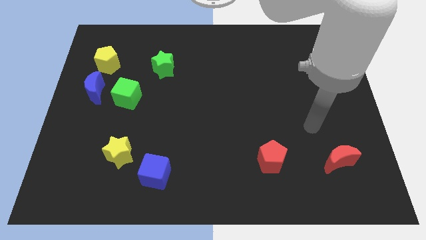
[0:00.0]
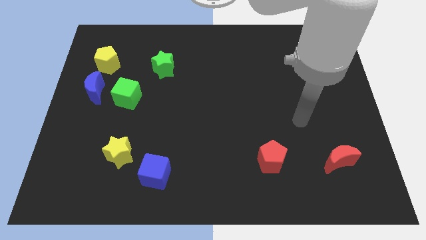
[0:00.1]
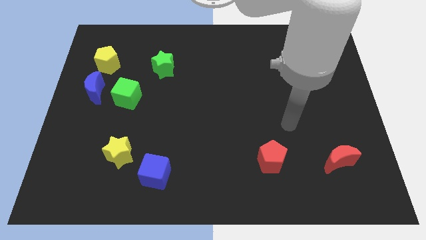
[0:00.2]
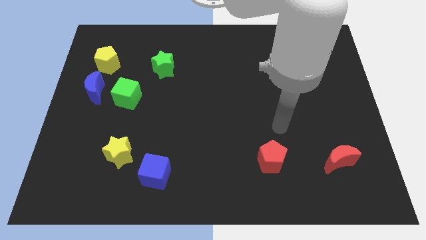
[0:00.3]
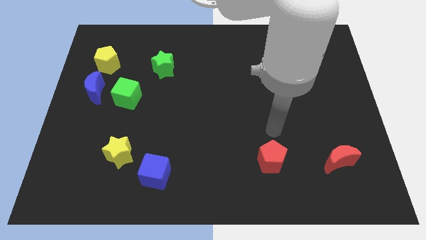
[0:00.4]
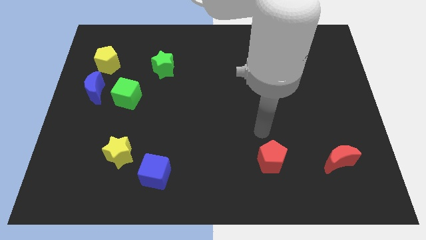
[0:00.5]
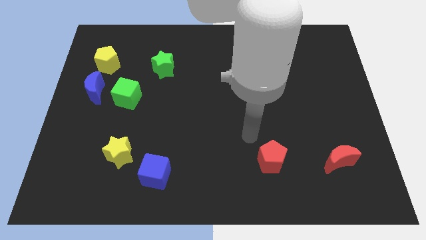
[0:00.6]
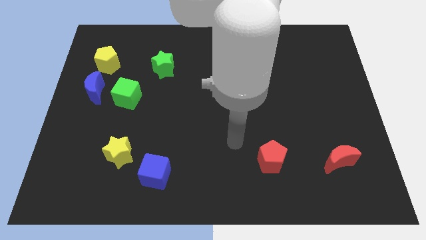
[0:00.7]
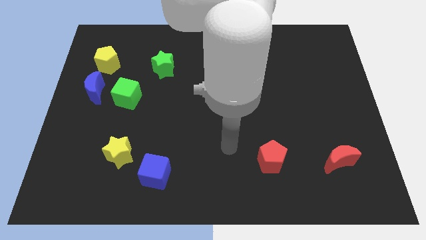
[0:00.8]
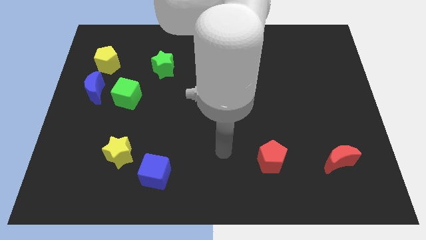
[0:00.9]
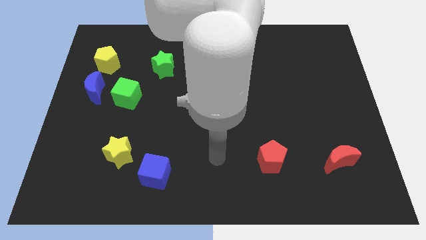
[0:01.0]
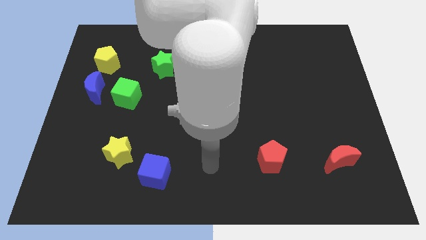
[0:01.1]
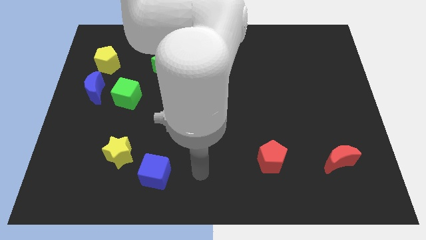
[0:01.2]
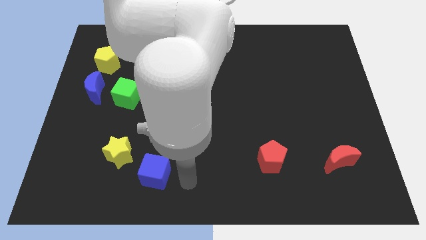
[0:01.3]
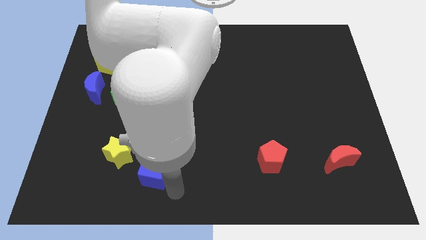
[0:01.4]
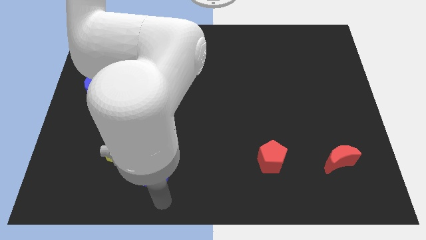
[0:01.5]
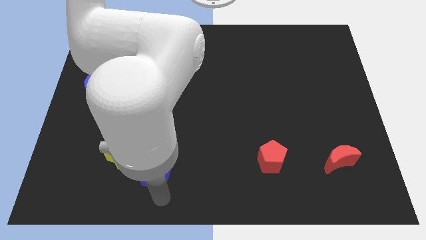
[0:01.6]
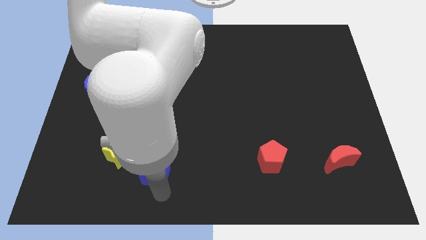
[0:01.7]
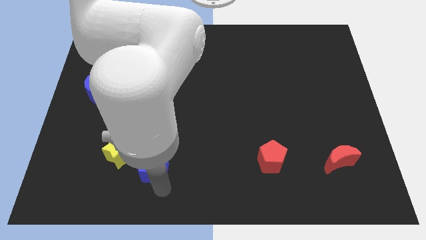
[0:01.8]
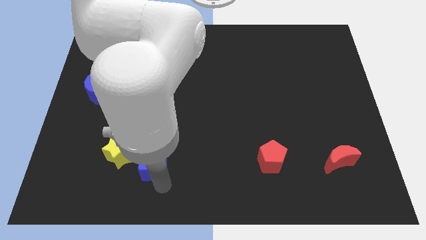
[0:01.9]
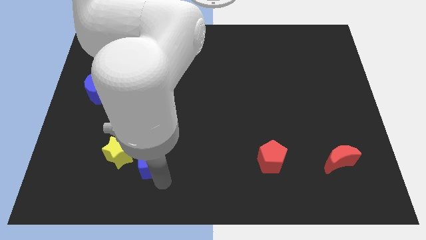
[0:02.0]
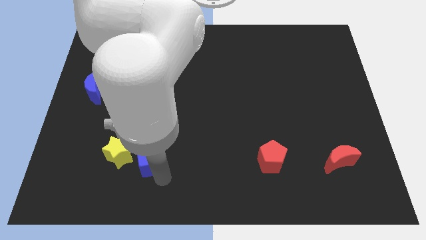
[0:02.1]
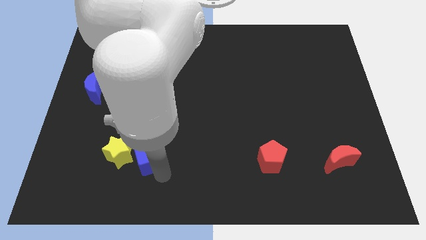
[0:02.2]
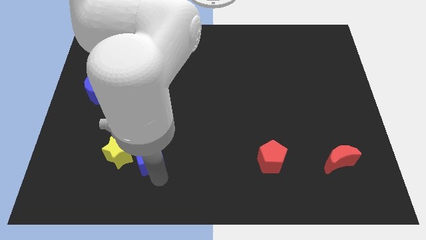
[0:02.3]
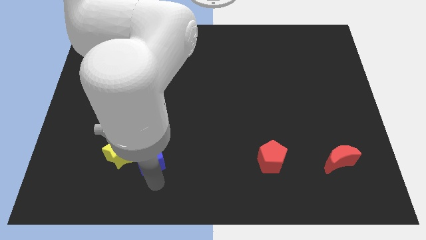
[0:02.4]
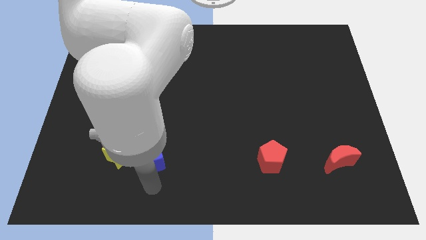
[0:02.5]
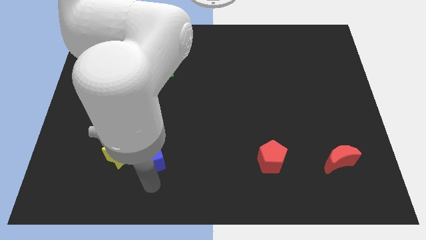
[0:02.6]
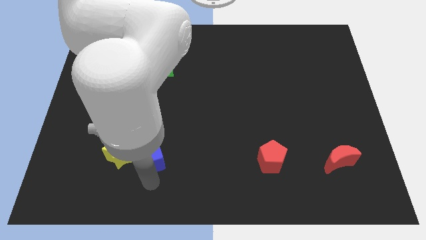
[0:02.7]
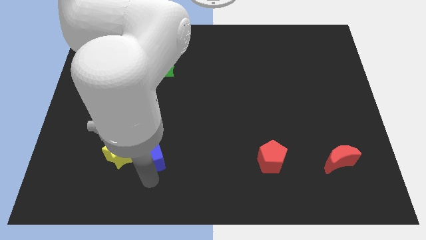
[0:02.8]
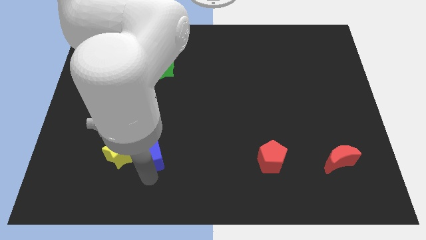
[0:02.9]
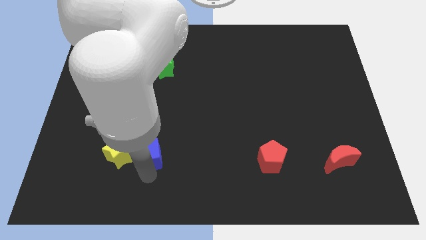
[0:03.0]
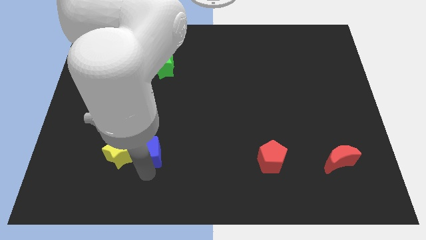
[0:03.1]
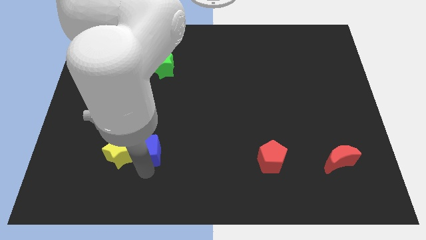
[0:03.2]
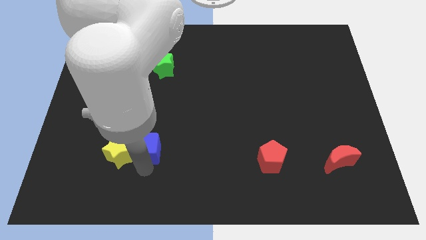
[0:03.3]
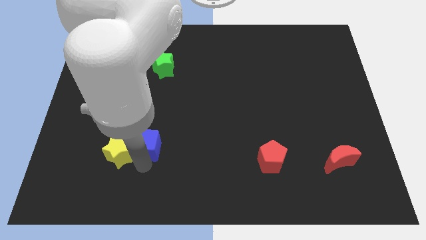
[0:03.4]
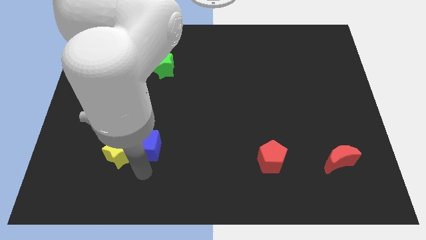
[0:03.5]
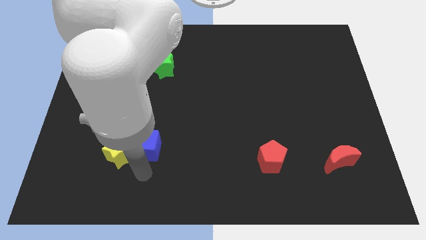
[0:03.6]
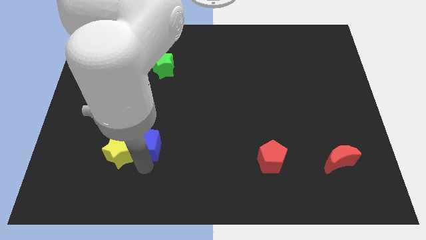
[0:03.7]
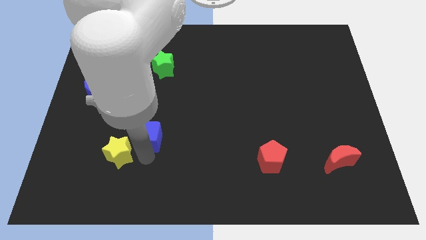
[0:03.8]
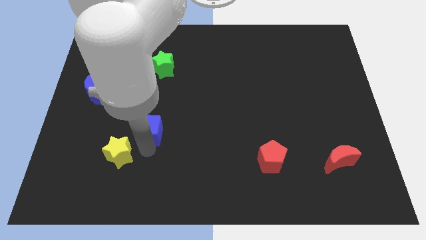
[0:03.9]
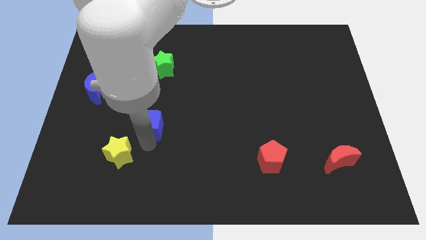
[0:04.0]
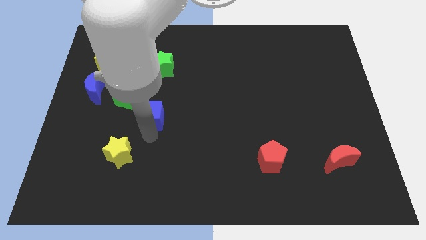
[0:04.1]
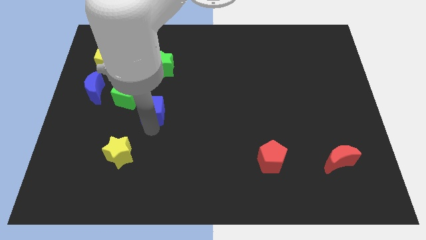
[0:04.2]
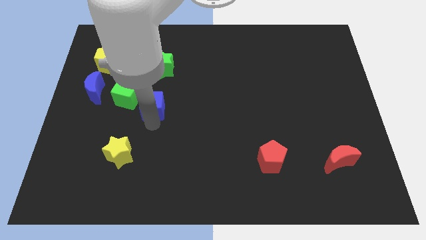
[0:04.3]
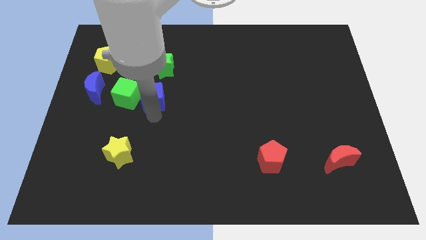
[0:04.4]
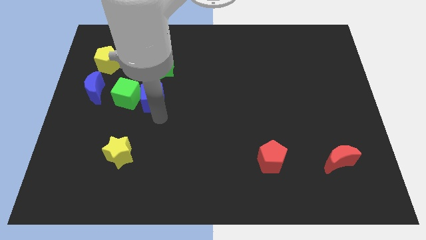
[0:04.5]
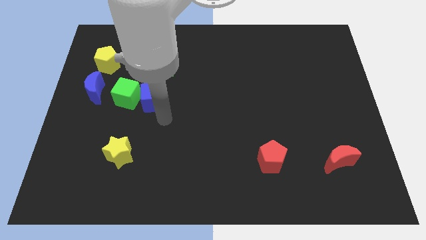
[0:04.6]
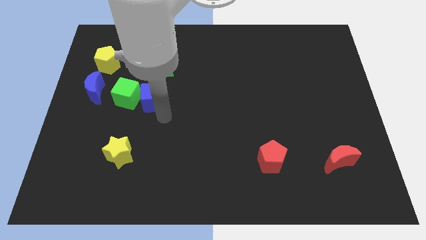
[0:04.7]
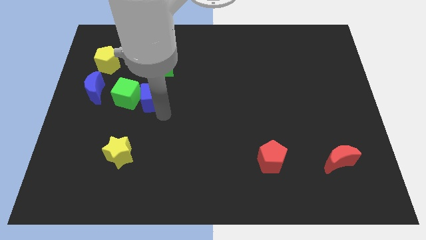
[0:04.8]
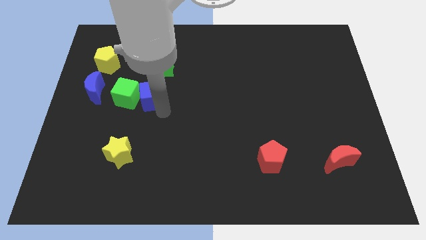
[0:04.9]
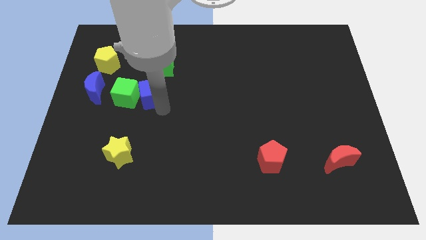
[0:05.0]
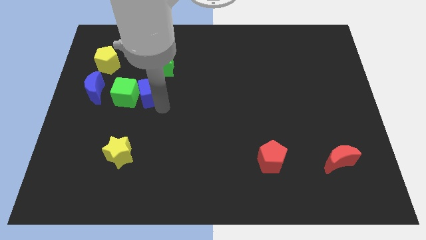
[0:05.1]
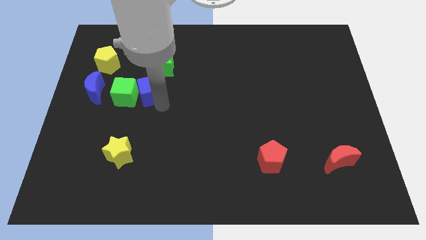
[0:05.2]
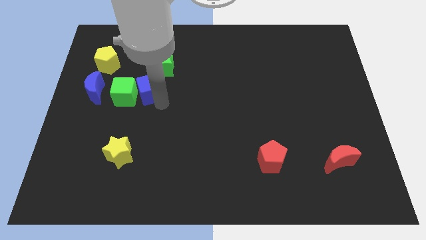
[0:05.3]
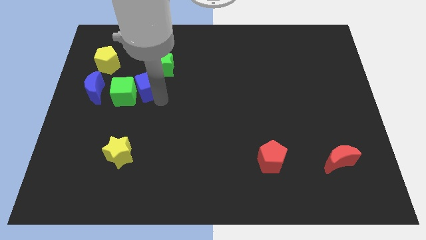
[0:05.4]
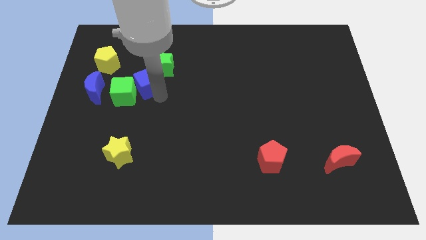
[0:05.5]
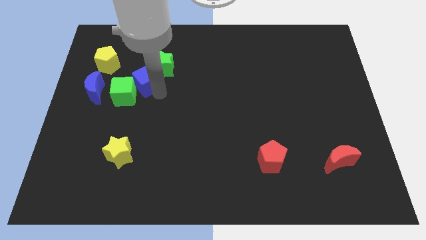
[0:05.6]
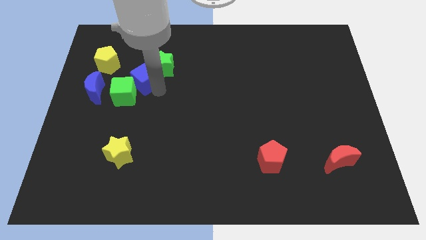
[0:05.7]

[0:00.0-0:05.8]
put the blue cube to the top side of the green cube

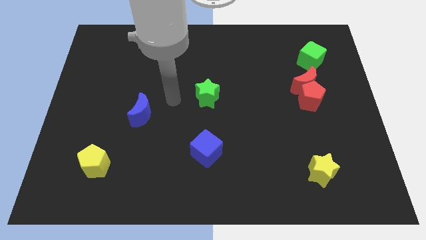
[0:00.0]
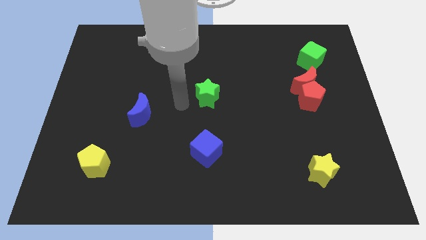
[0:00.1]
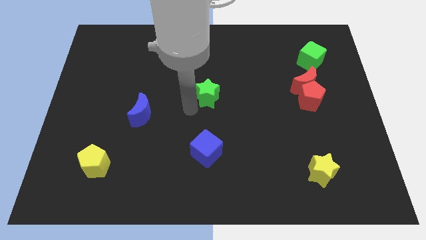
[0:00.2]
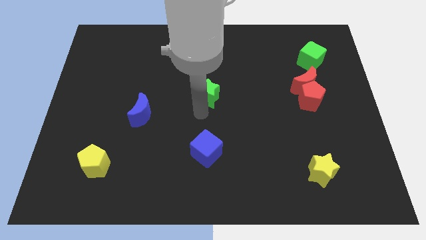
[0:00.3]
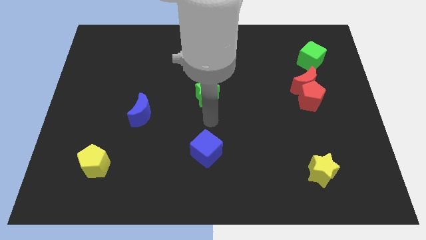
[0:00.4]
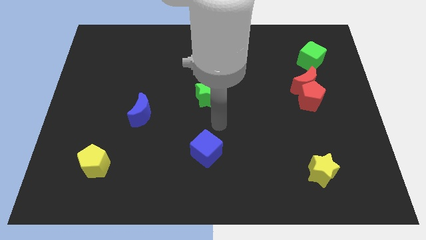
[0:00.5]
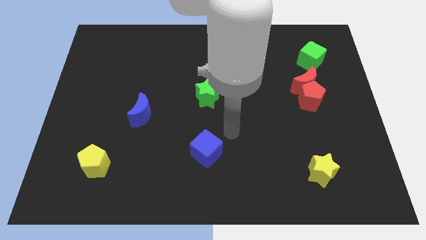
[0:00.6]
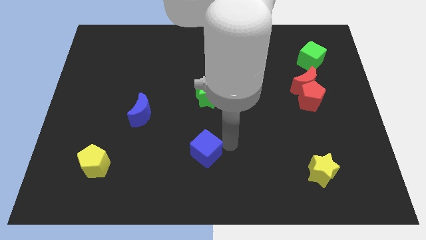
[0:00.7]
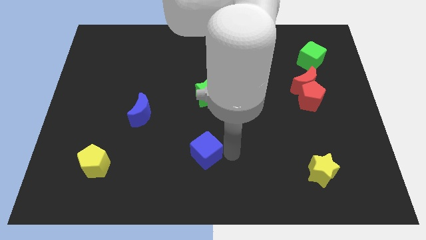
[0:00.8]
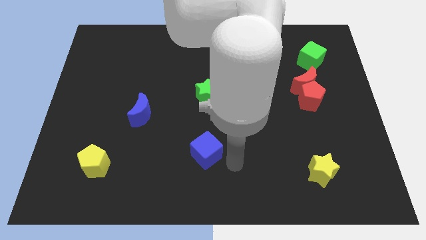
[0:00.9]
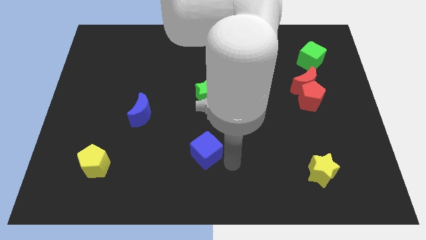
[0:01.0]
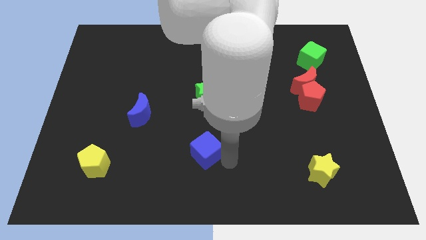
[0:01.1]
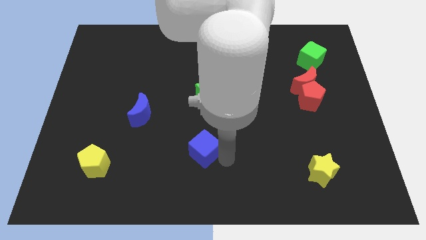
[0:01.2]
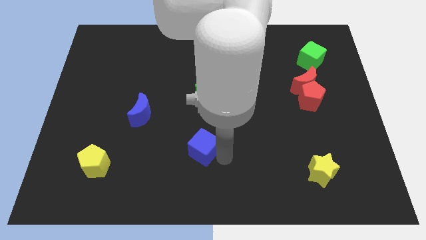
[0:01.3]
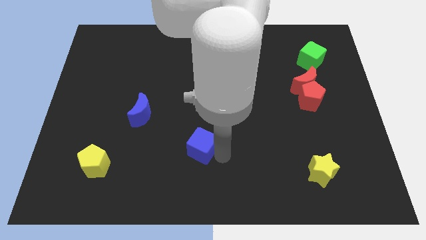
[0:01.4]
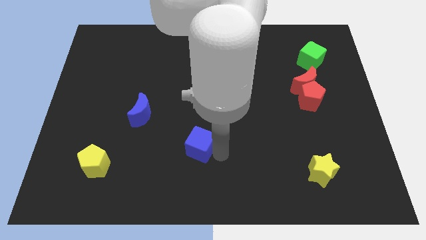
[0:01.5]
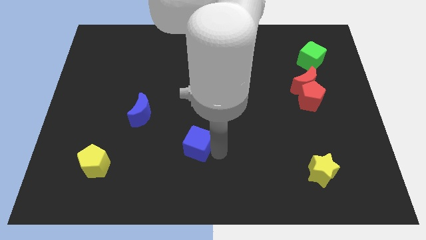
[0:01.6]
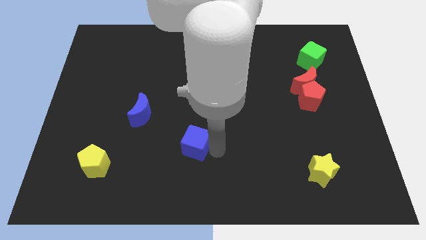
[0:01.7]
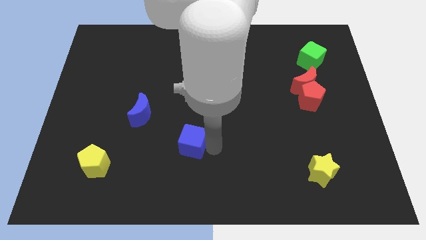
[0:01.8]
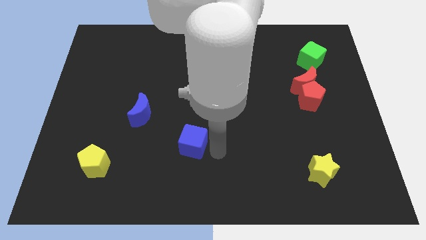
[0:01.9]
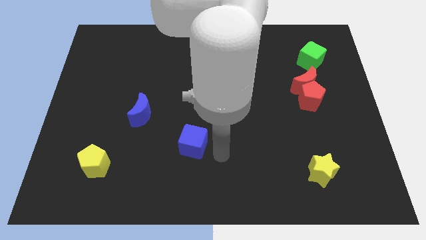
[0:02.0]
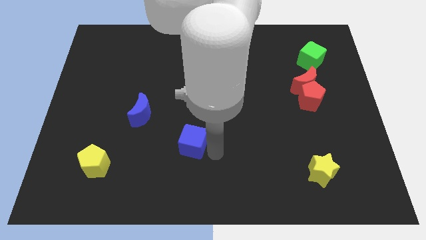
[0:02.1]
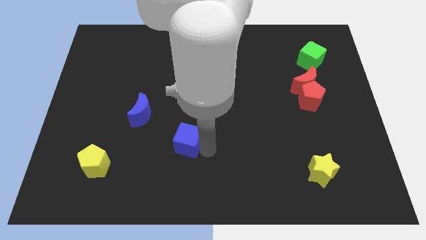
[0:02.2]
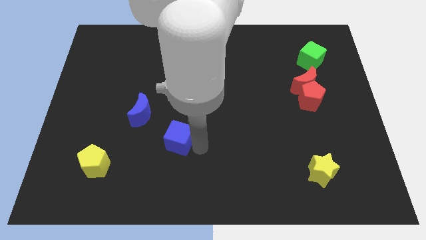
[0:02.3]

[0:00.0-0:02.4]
push the blue cube to the bottom right side of the blue moon
